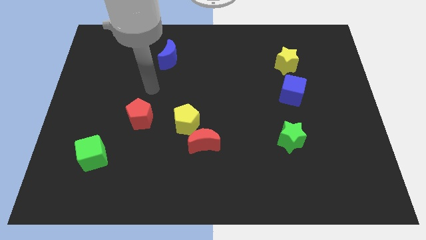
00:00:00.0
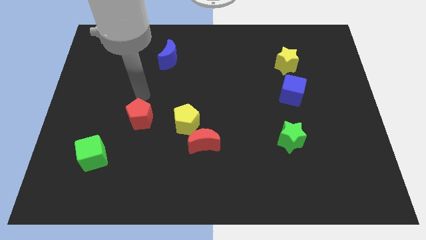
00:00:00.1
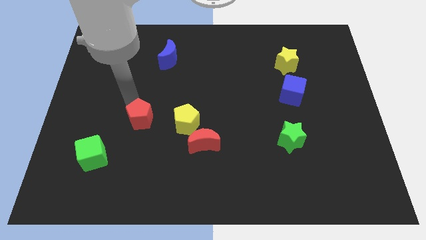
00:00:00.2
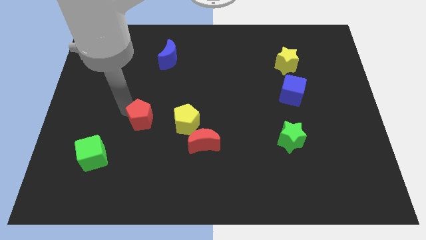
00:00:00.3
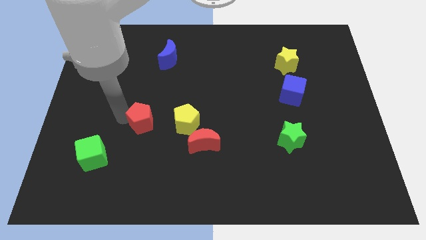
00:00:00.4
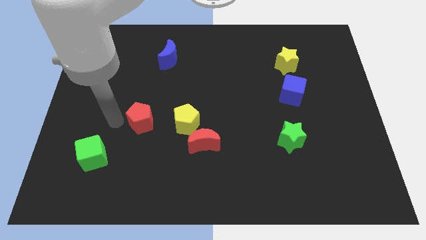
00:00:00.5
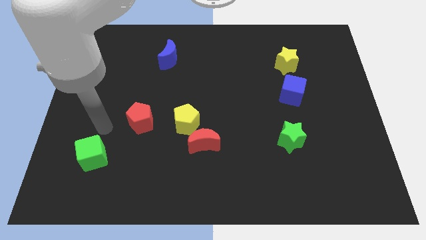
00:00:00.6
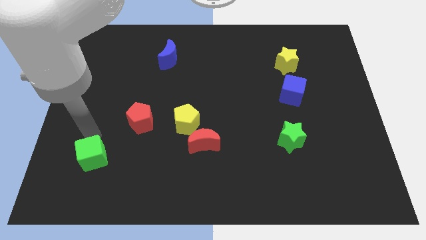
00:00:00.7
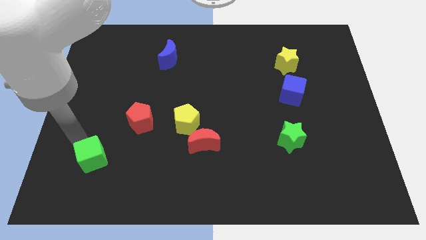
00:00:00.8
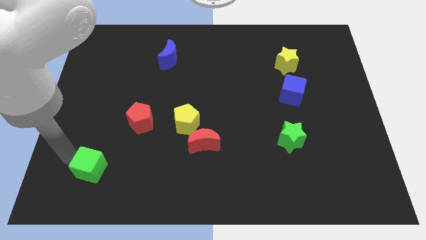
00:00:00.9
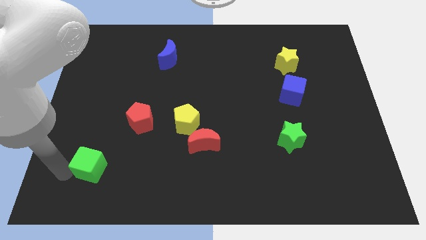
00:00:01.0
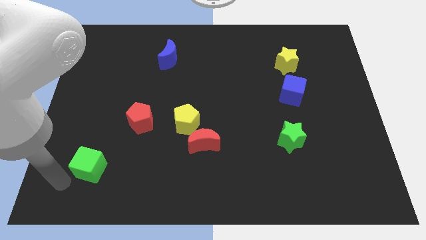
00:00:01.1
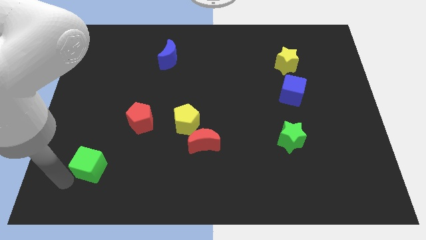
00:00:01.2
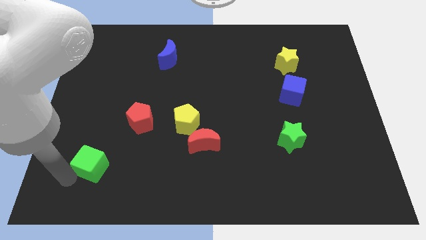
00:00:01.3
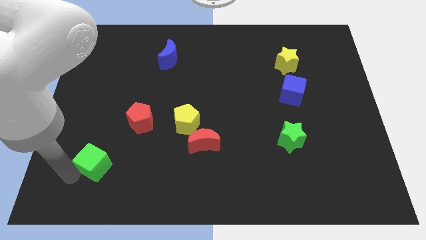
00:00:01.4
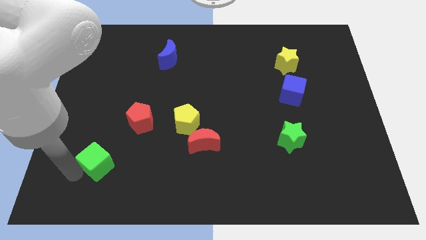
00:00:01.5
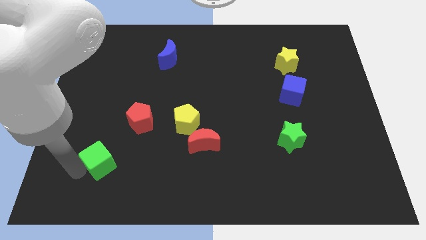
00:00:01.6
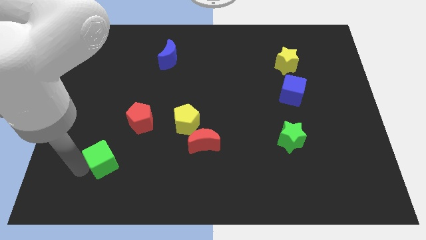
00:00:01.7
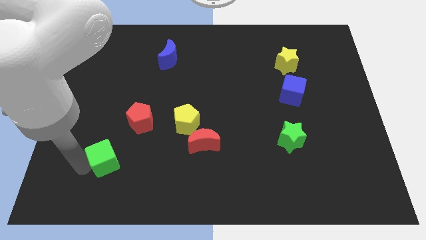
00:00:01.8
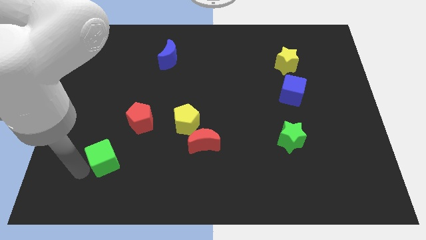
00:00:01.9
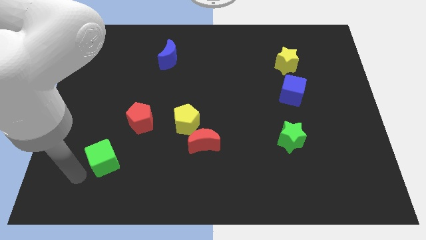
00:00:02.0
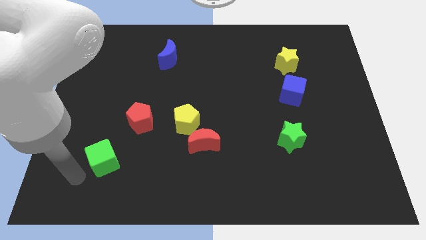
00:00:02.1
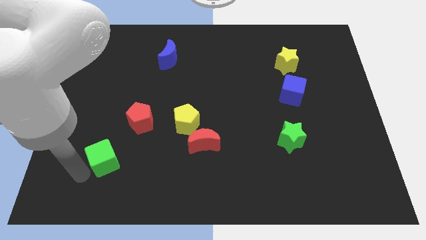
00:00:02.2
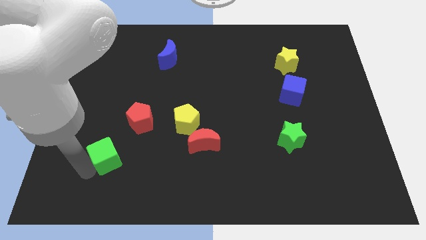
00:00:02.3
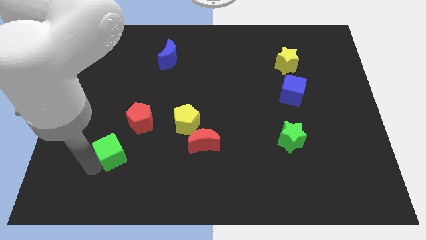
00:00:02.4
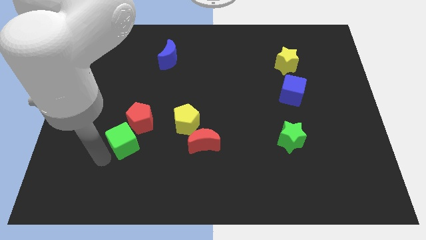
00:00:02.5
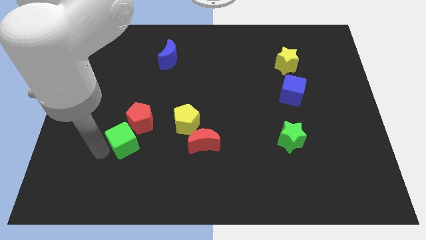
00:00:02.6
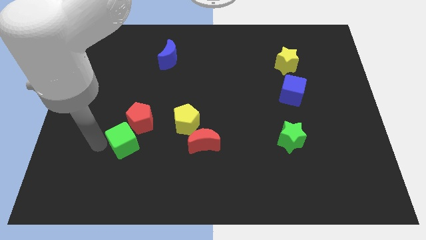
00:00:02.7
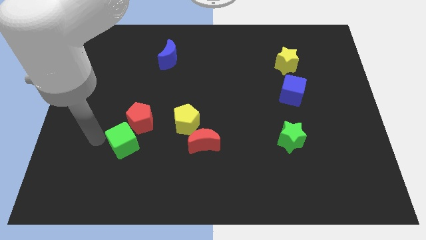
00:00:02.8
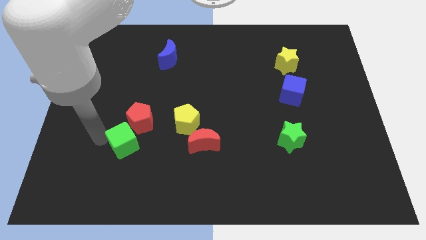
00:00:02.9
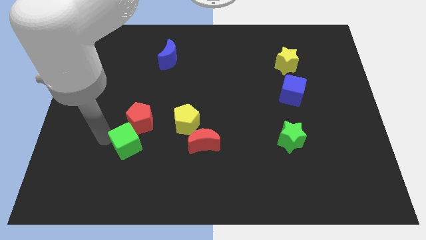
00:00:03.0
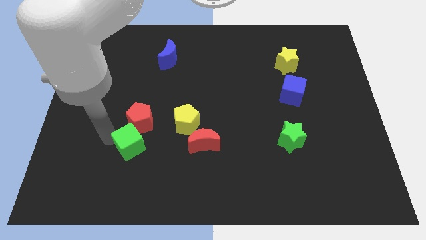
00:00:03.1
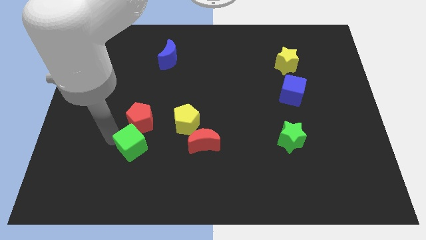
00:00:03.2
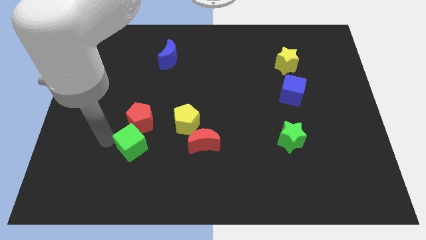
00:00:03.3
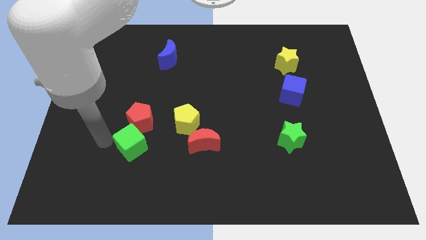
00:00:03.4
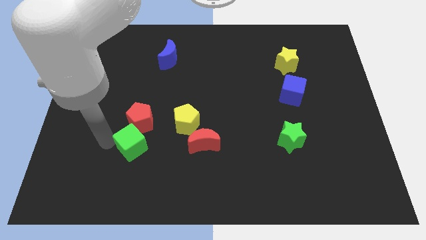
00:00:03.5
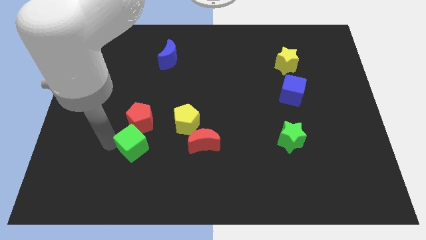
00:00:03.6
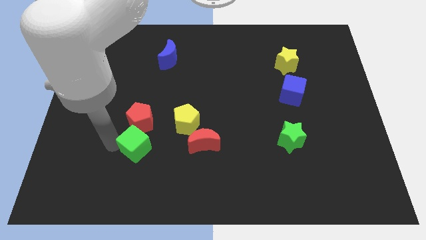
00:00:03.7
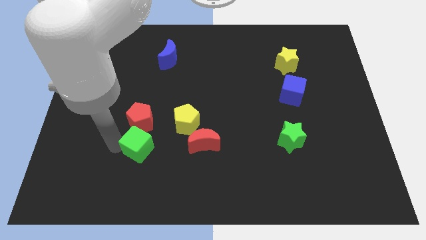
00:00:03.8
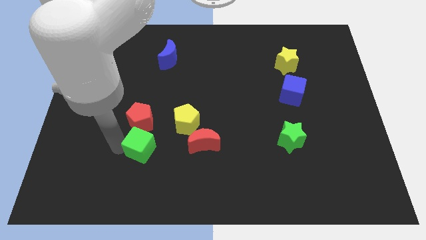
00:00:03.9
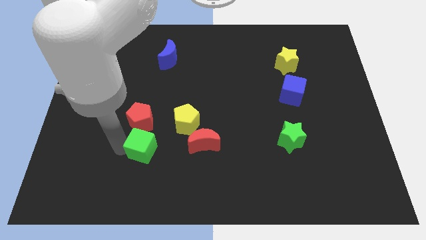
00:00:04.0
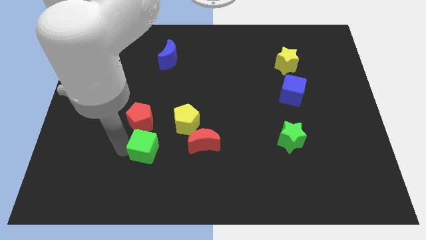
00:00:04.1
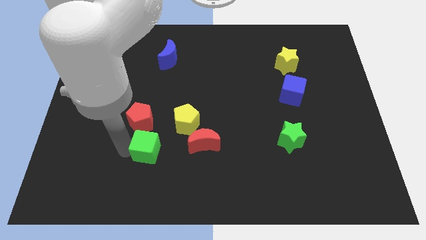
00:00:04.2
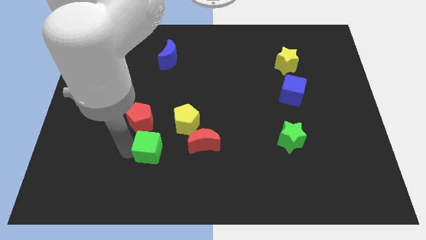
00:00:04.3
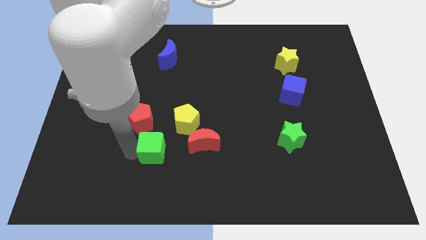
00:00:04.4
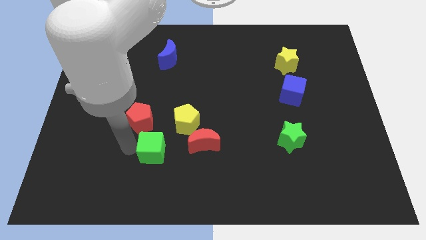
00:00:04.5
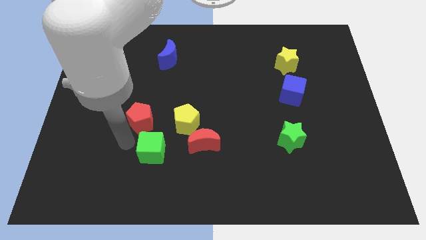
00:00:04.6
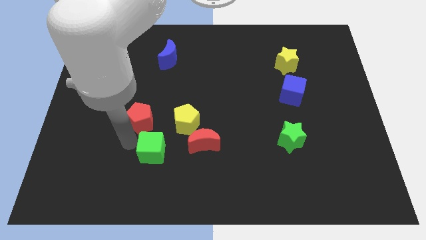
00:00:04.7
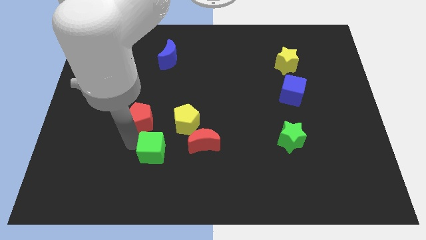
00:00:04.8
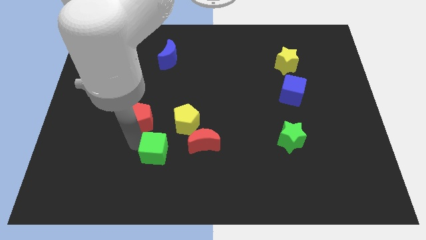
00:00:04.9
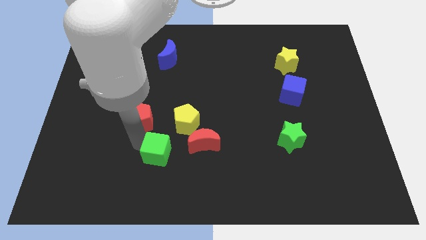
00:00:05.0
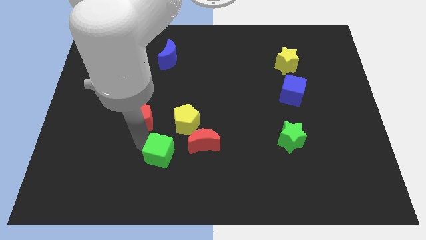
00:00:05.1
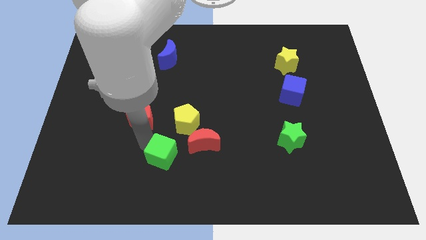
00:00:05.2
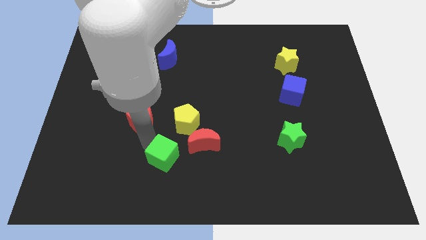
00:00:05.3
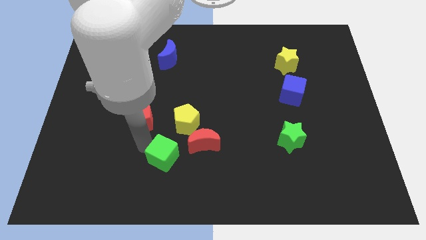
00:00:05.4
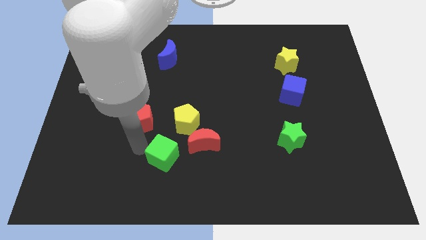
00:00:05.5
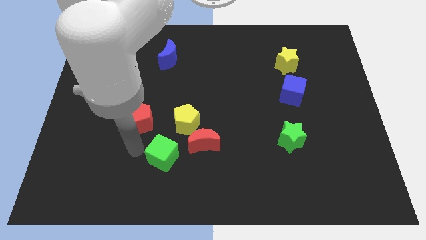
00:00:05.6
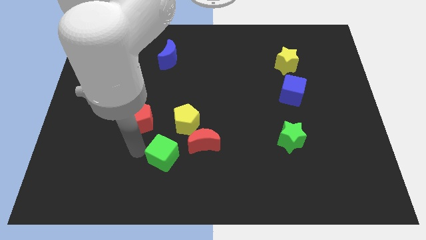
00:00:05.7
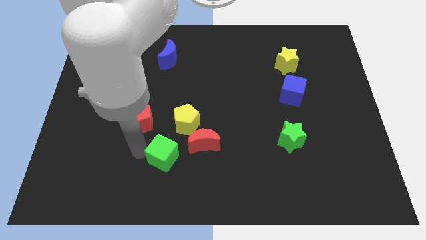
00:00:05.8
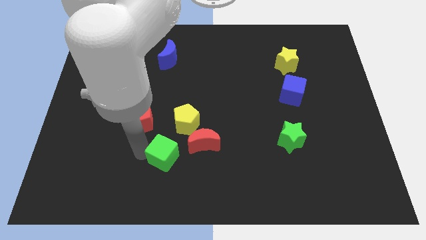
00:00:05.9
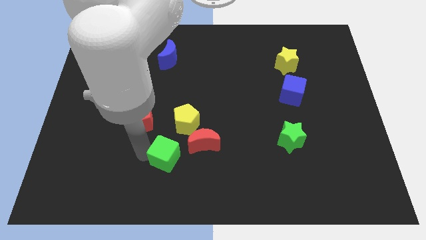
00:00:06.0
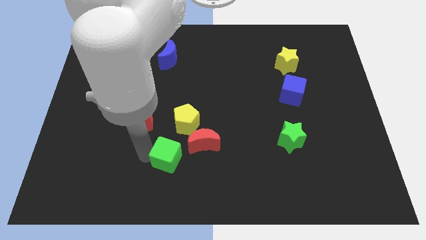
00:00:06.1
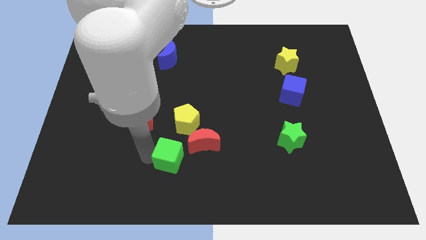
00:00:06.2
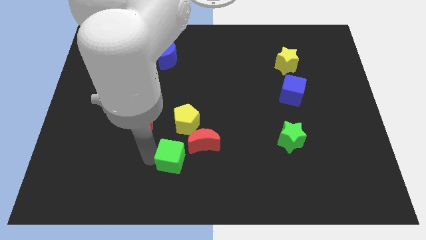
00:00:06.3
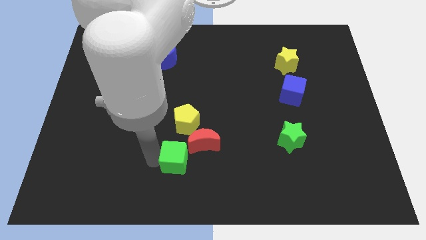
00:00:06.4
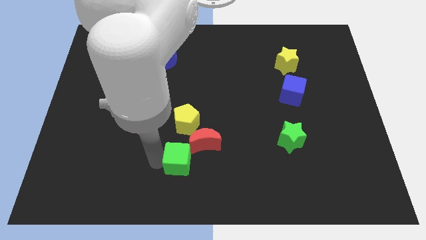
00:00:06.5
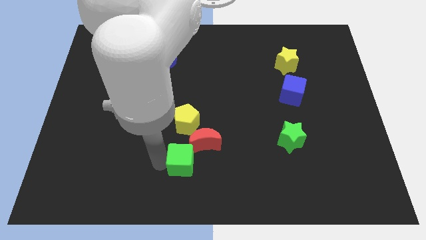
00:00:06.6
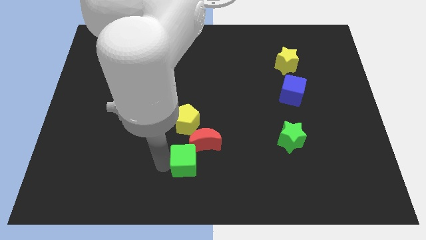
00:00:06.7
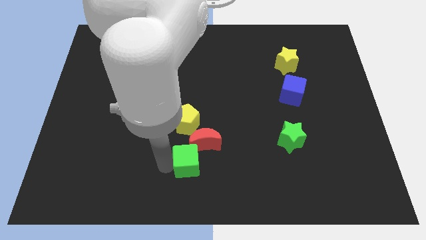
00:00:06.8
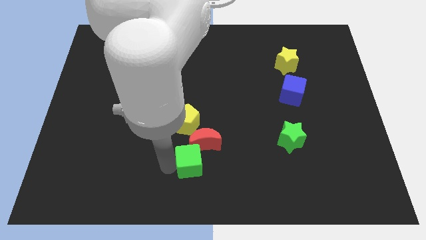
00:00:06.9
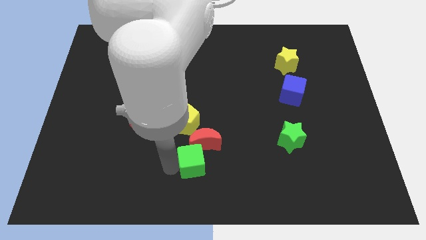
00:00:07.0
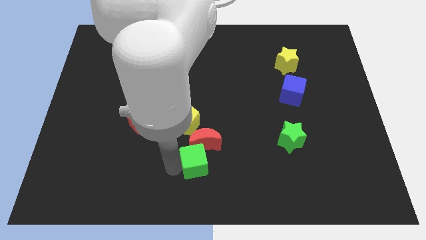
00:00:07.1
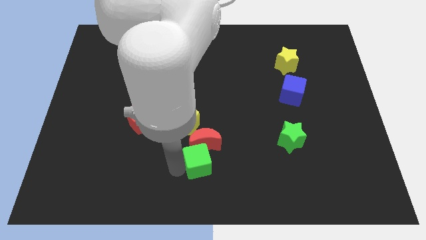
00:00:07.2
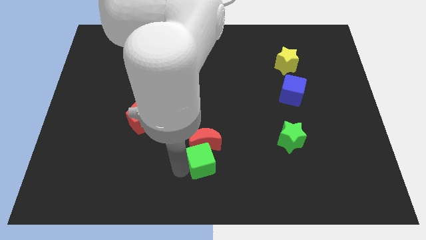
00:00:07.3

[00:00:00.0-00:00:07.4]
move the green cube to the bottom right of the yellow pentagon

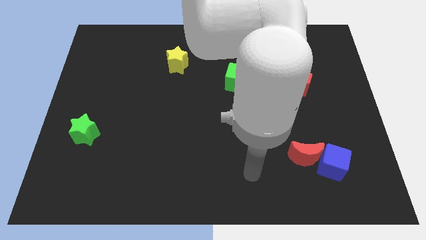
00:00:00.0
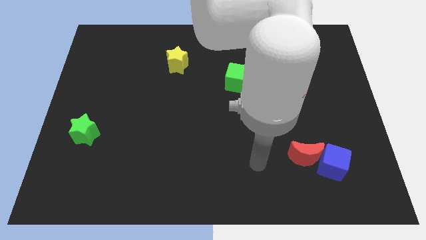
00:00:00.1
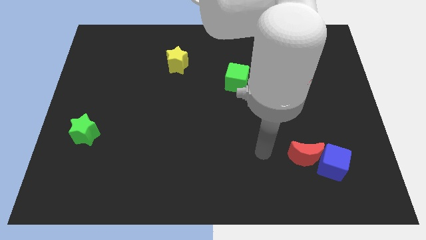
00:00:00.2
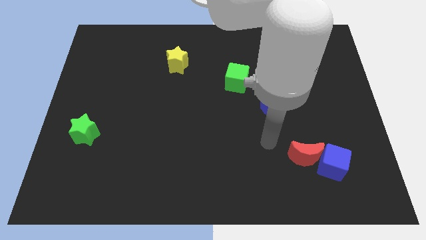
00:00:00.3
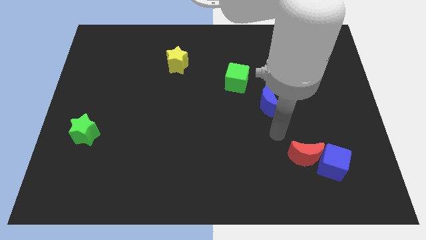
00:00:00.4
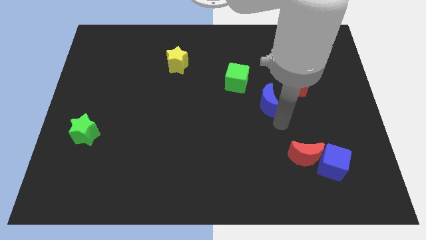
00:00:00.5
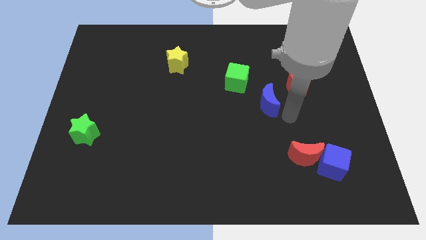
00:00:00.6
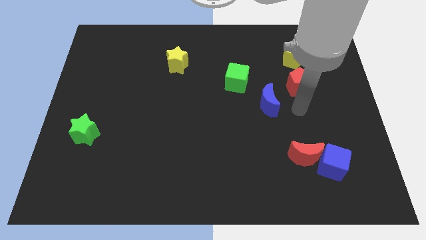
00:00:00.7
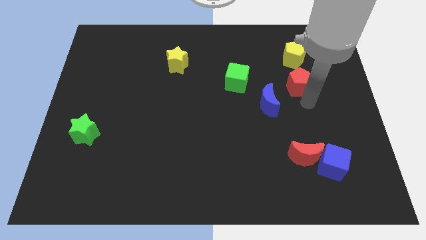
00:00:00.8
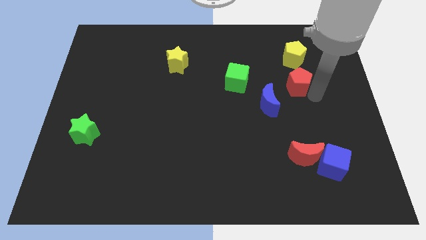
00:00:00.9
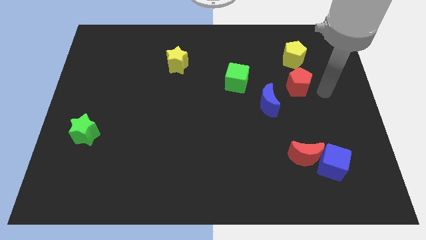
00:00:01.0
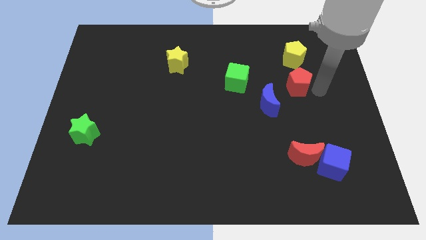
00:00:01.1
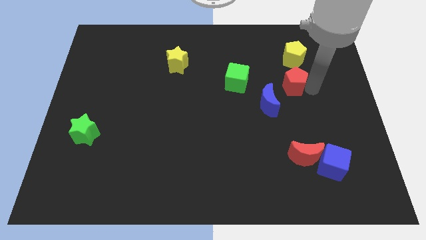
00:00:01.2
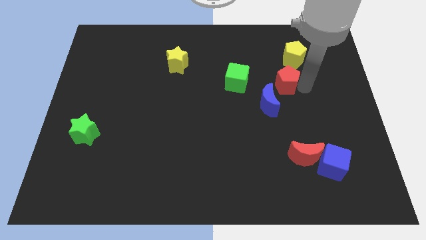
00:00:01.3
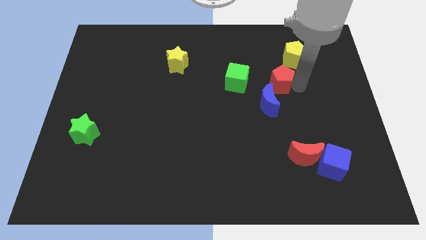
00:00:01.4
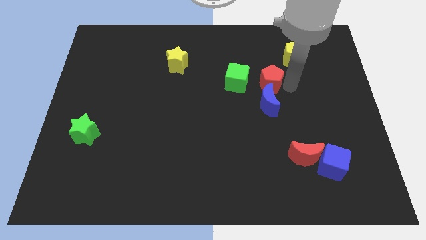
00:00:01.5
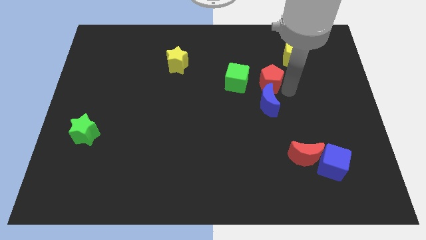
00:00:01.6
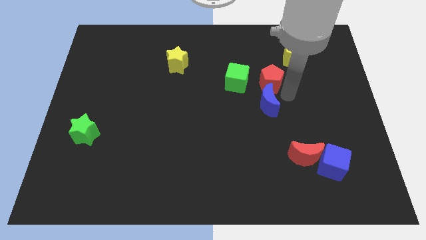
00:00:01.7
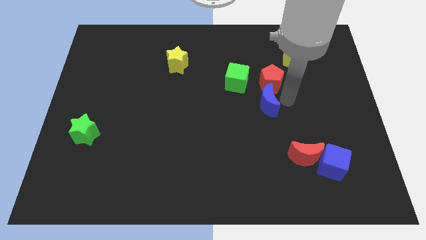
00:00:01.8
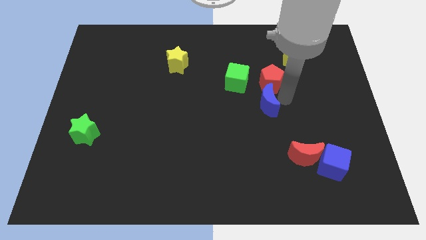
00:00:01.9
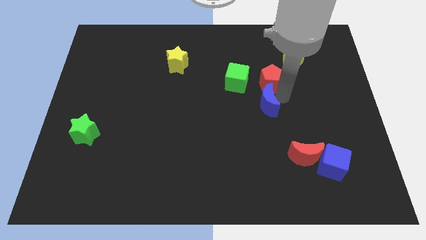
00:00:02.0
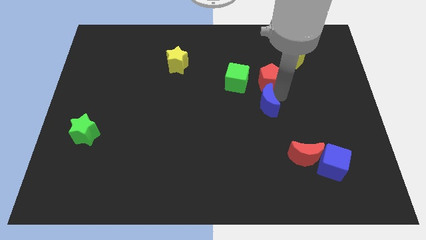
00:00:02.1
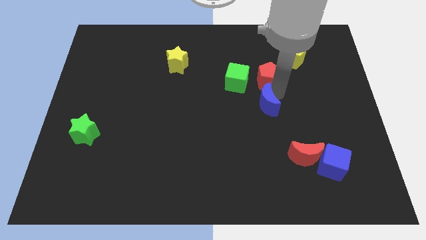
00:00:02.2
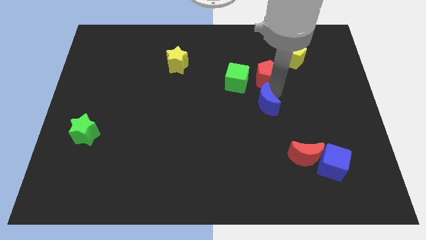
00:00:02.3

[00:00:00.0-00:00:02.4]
put the red pentagon diagonally up and to the right of the green cube
